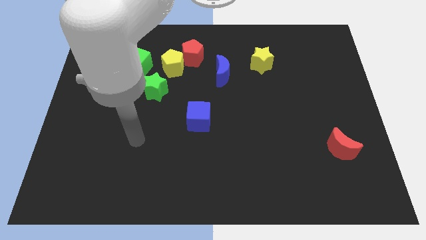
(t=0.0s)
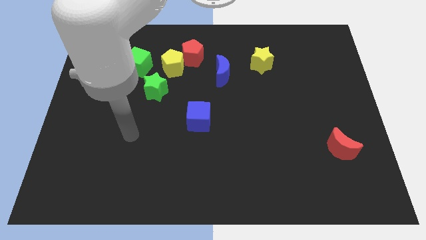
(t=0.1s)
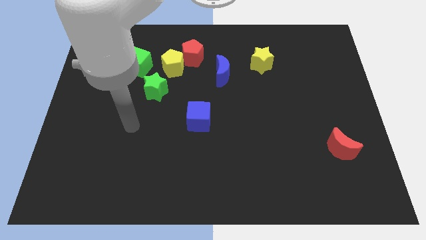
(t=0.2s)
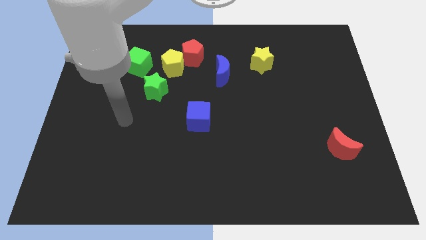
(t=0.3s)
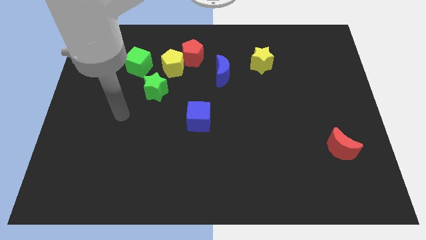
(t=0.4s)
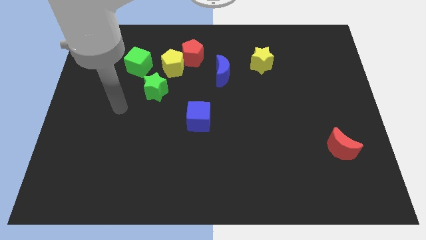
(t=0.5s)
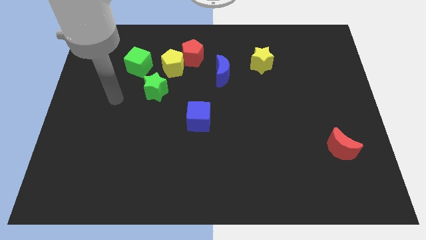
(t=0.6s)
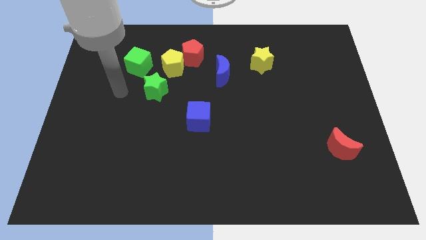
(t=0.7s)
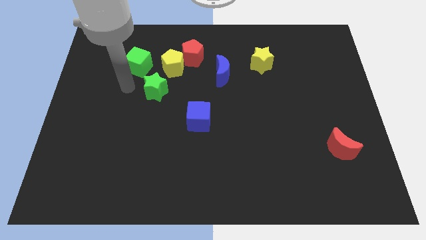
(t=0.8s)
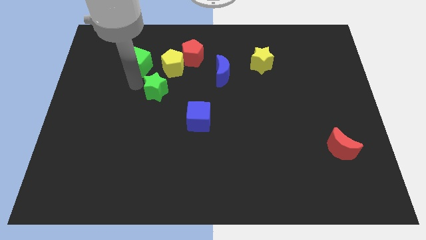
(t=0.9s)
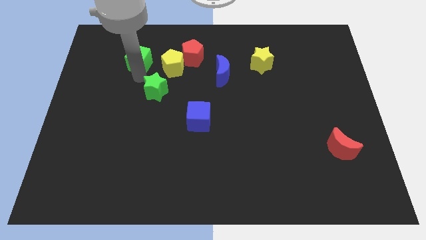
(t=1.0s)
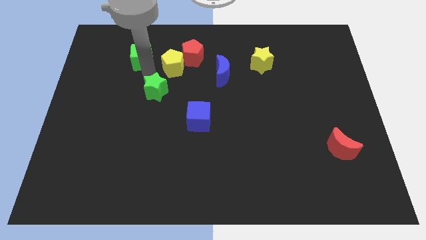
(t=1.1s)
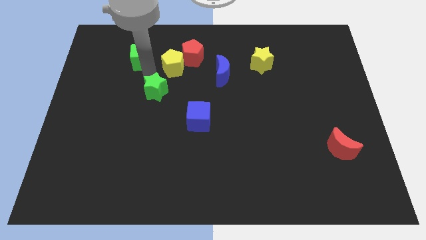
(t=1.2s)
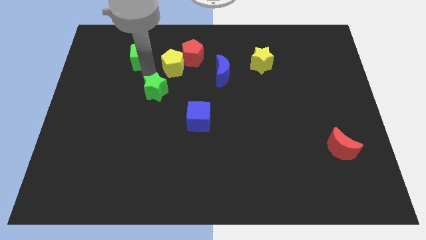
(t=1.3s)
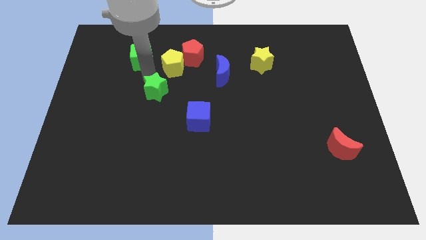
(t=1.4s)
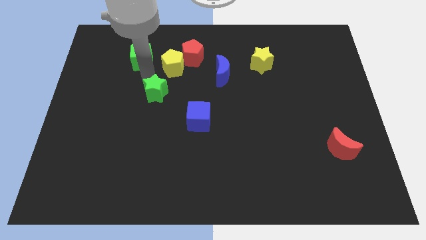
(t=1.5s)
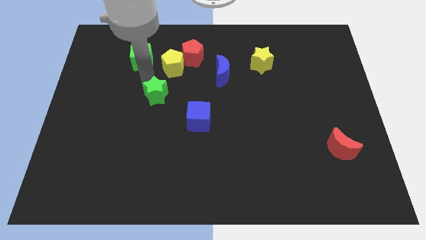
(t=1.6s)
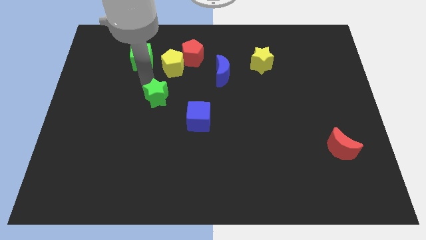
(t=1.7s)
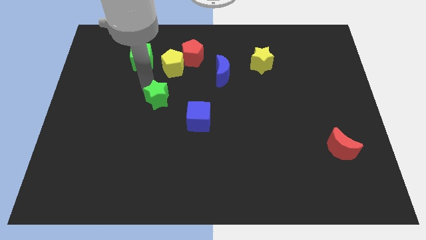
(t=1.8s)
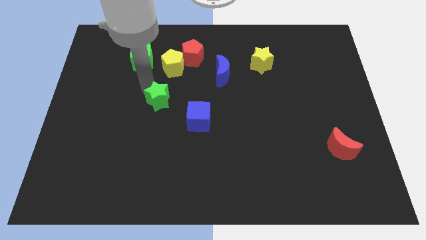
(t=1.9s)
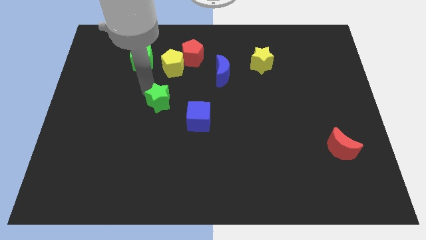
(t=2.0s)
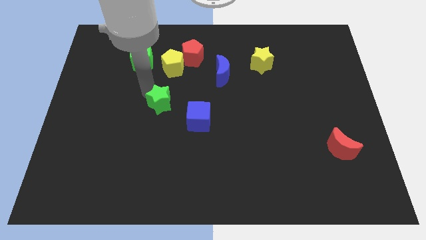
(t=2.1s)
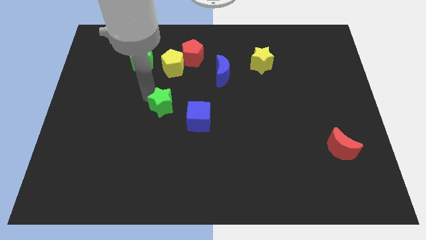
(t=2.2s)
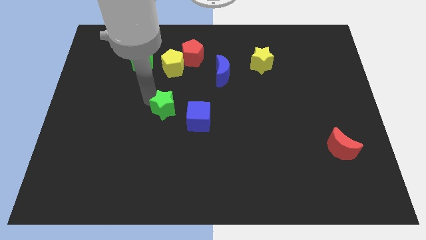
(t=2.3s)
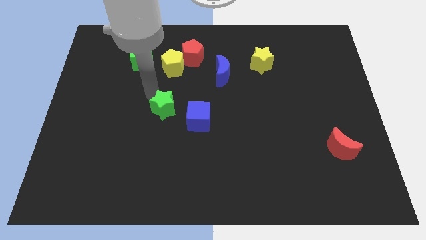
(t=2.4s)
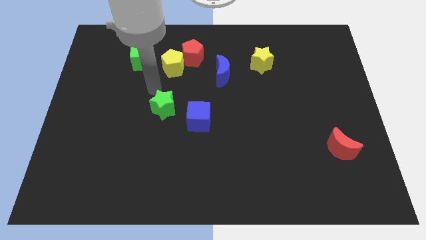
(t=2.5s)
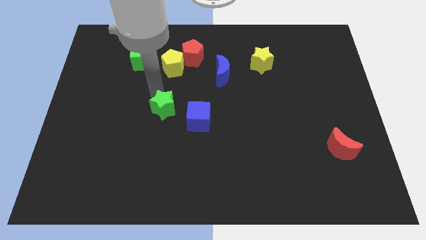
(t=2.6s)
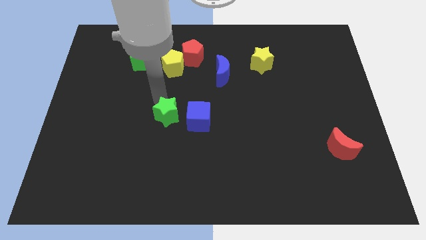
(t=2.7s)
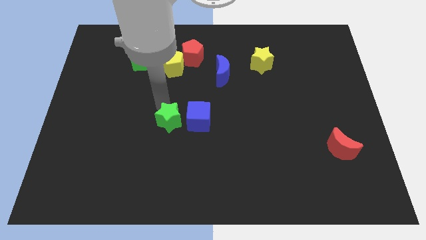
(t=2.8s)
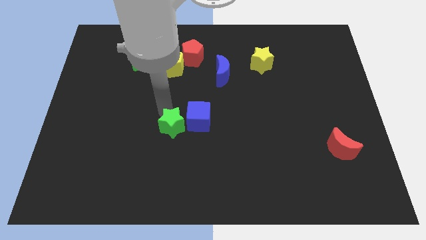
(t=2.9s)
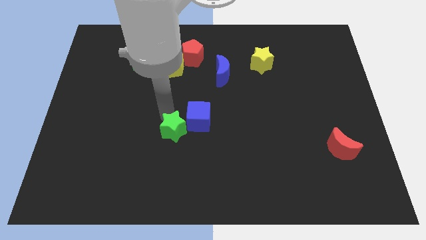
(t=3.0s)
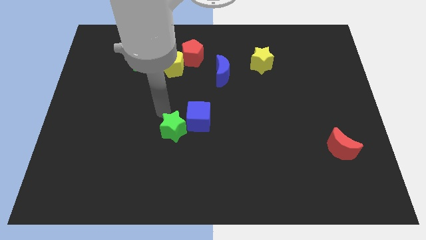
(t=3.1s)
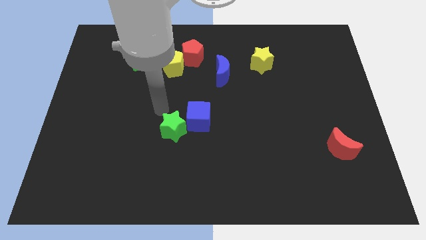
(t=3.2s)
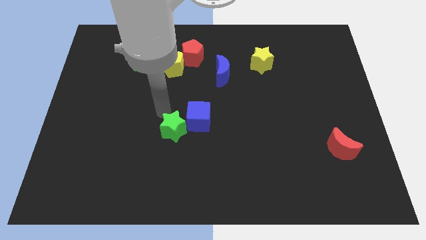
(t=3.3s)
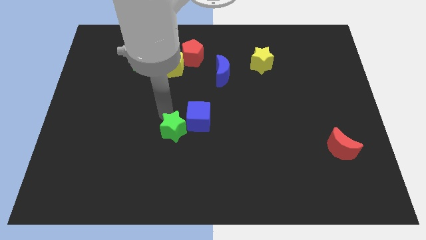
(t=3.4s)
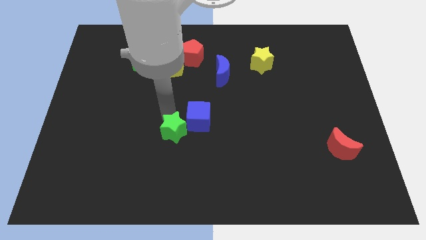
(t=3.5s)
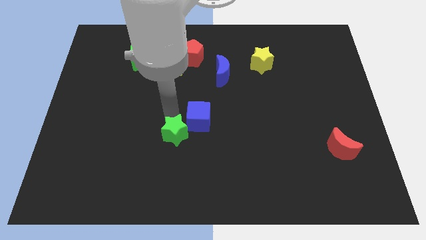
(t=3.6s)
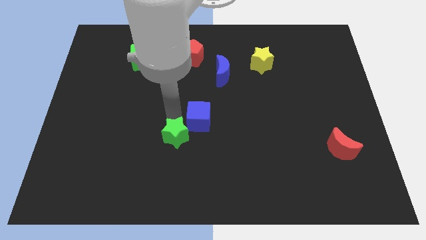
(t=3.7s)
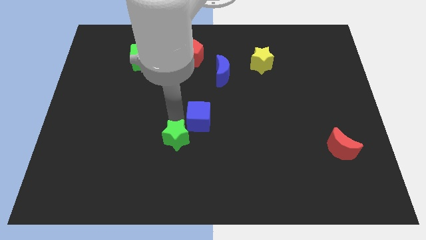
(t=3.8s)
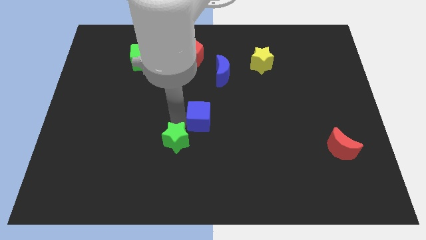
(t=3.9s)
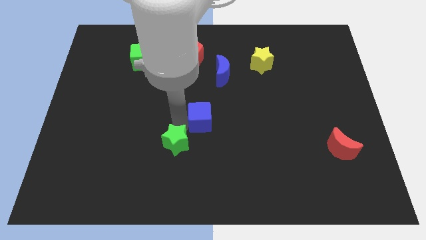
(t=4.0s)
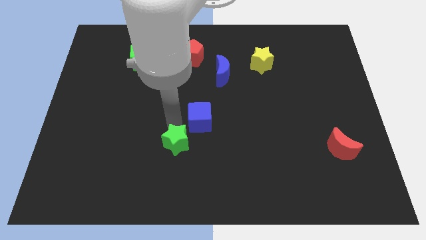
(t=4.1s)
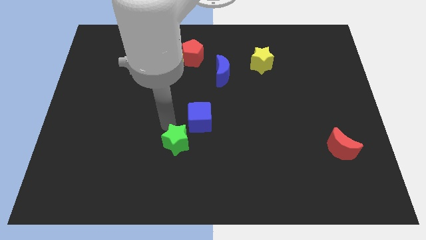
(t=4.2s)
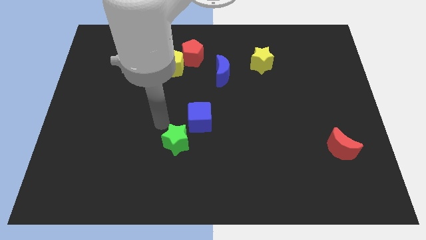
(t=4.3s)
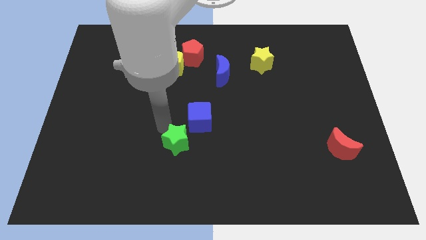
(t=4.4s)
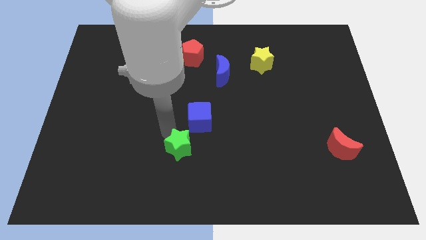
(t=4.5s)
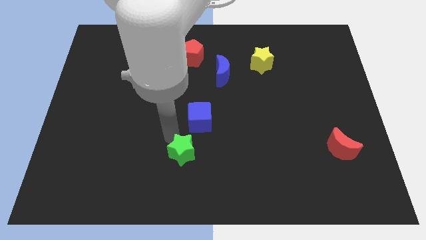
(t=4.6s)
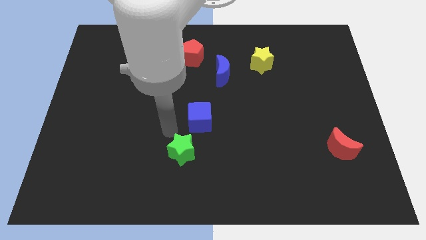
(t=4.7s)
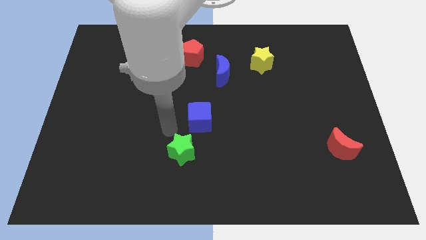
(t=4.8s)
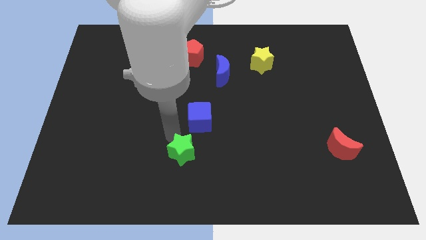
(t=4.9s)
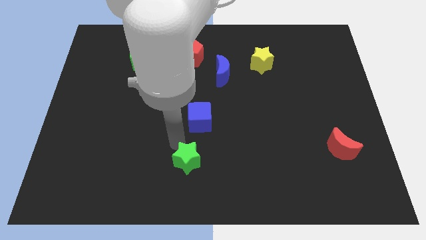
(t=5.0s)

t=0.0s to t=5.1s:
push the green star to the bottom side

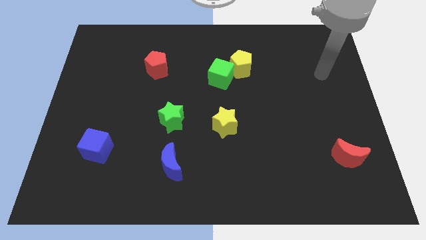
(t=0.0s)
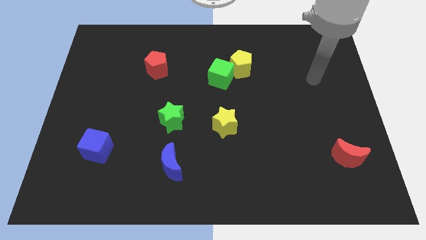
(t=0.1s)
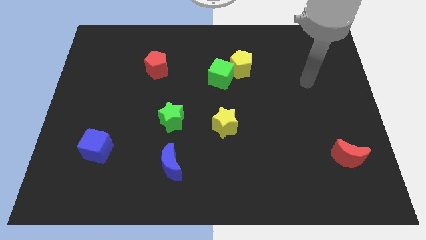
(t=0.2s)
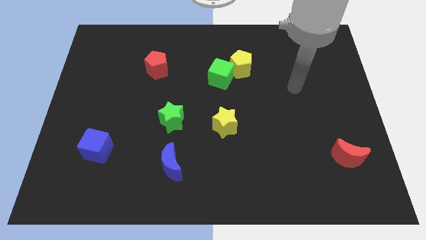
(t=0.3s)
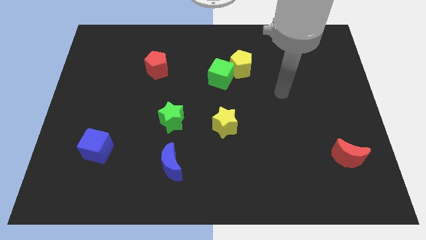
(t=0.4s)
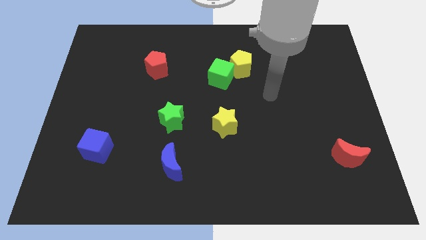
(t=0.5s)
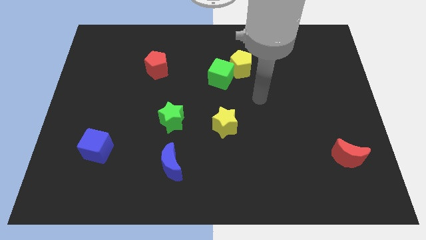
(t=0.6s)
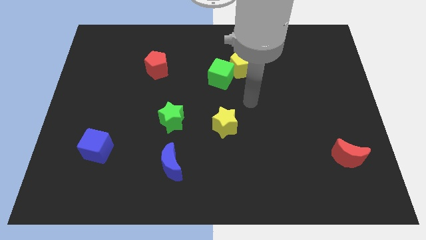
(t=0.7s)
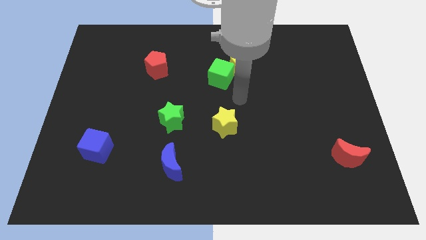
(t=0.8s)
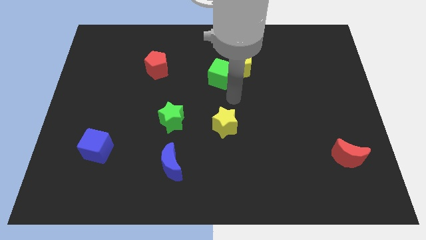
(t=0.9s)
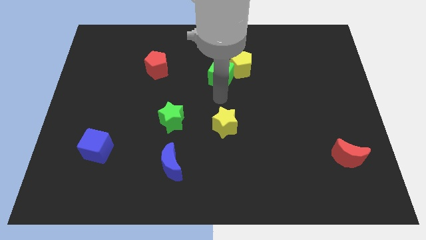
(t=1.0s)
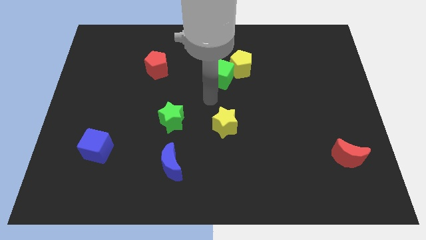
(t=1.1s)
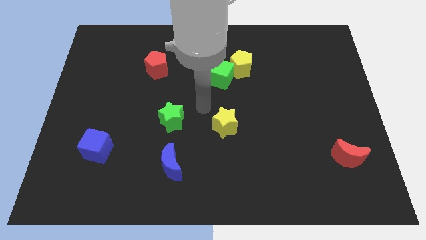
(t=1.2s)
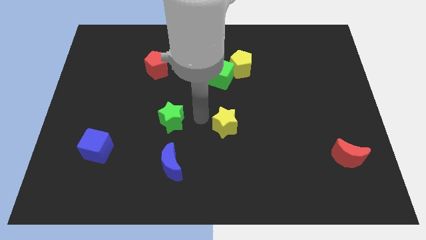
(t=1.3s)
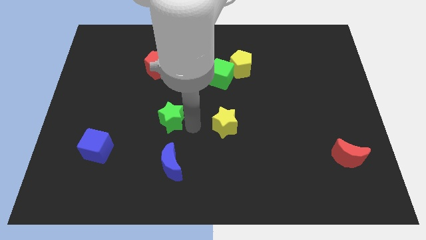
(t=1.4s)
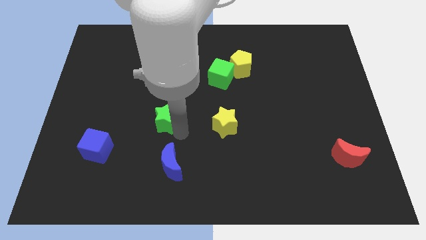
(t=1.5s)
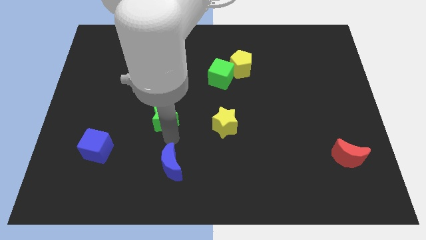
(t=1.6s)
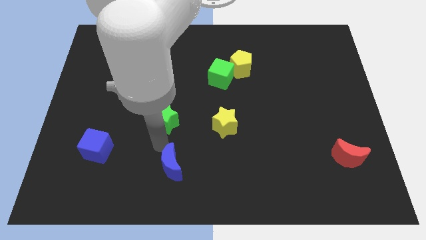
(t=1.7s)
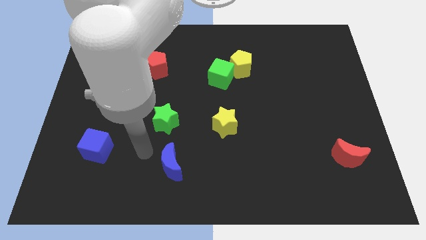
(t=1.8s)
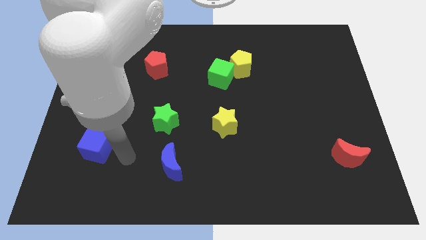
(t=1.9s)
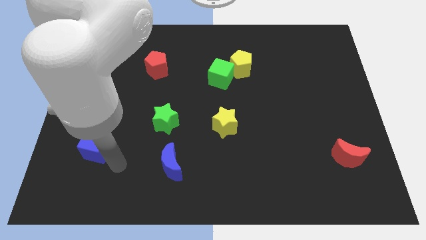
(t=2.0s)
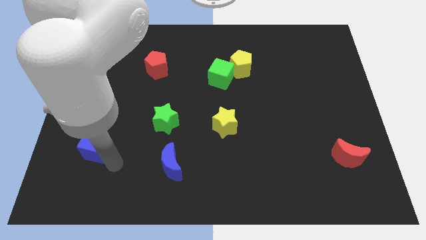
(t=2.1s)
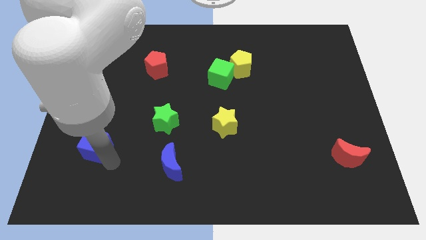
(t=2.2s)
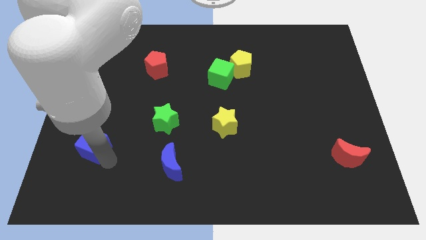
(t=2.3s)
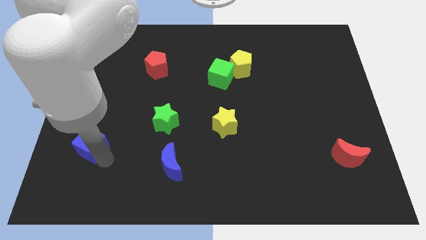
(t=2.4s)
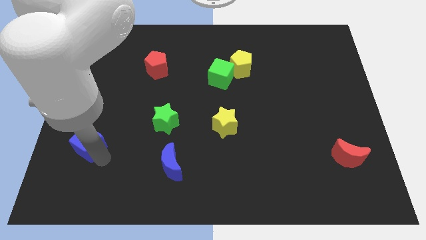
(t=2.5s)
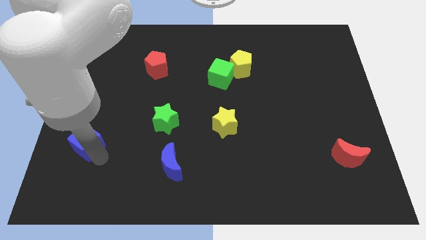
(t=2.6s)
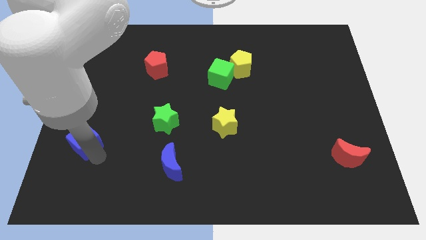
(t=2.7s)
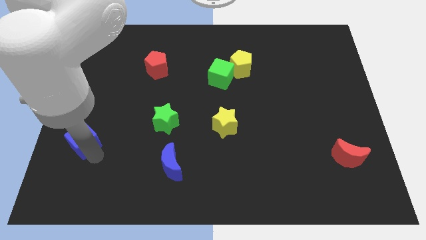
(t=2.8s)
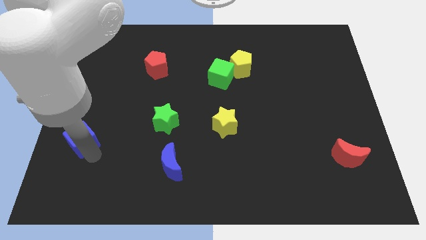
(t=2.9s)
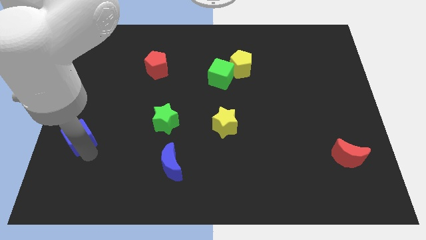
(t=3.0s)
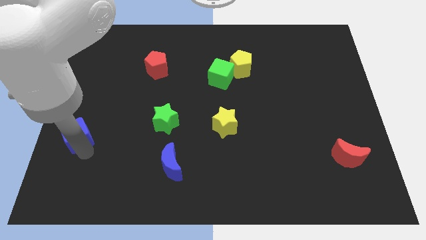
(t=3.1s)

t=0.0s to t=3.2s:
slide the blue cube to the center left
